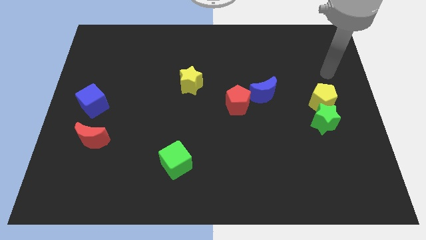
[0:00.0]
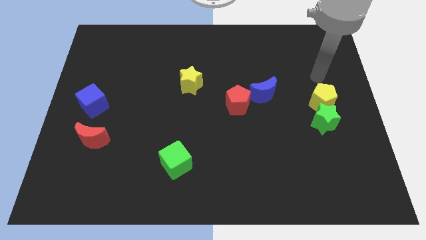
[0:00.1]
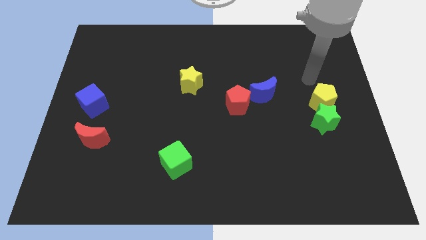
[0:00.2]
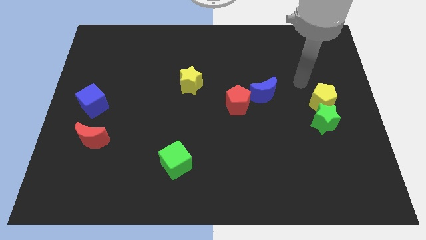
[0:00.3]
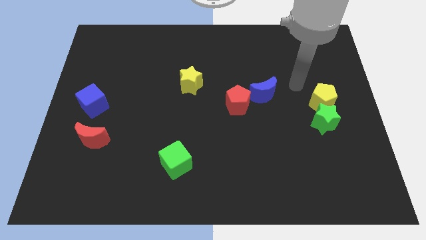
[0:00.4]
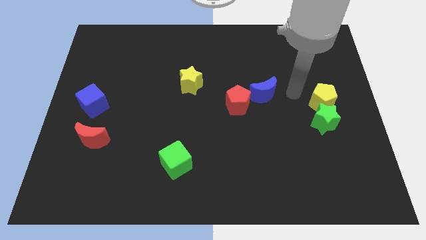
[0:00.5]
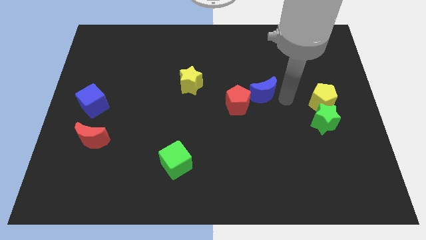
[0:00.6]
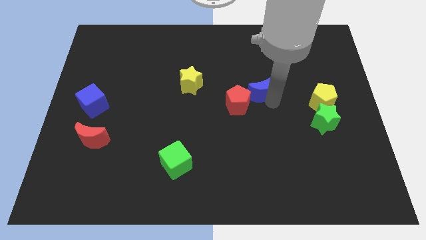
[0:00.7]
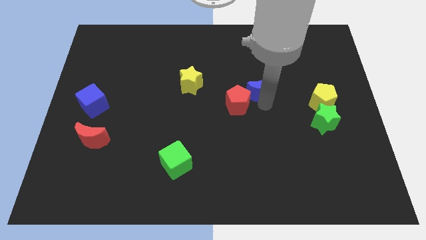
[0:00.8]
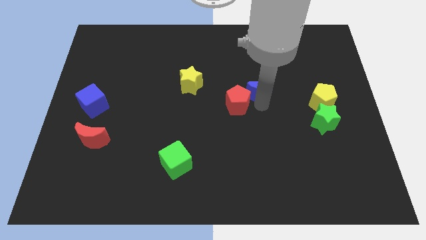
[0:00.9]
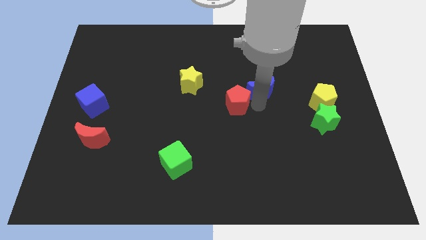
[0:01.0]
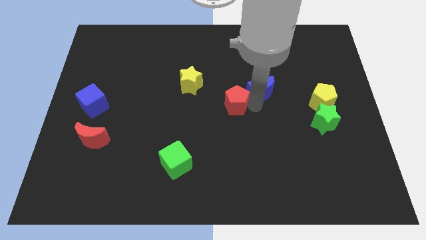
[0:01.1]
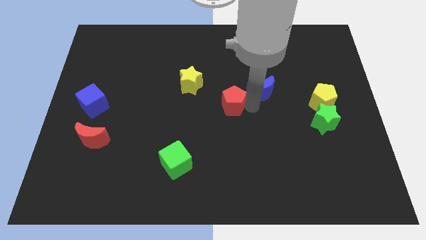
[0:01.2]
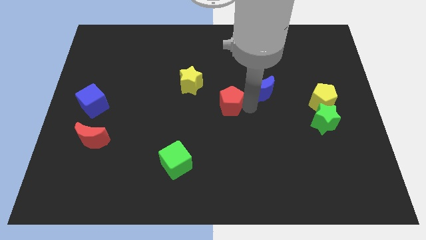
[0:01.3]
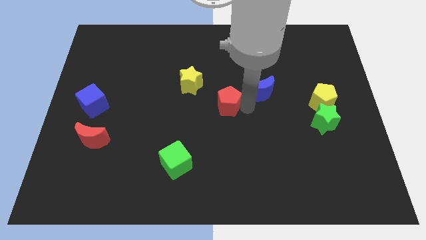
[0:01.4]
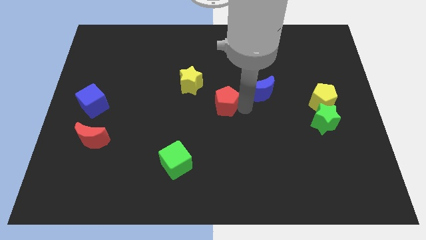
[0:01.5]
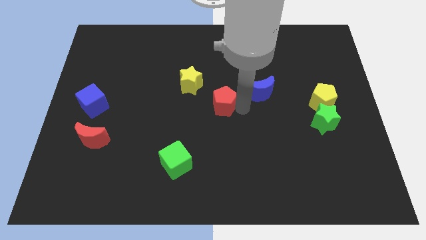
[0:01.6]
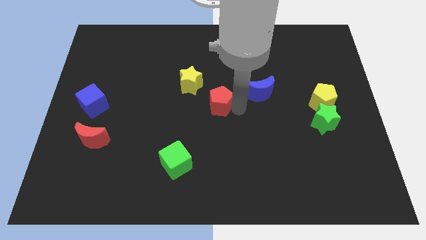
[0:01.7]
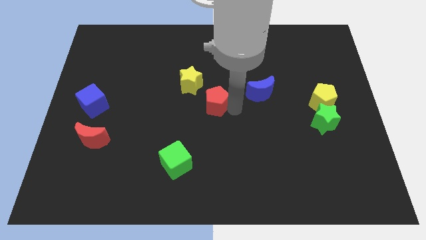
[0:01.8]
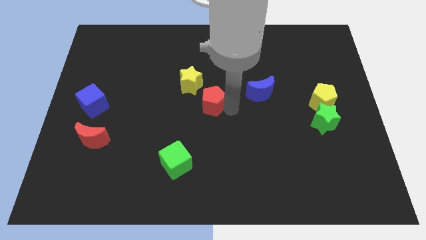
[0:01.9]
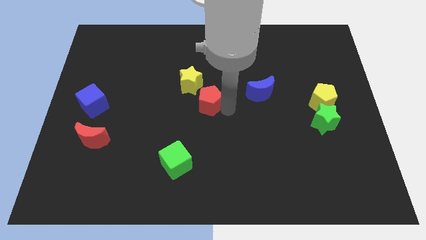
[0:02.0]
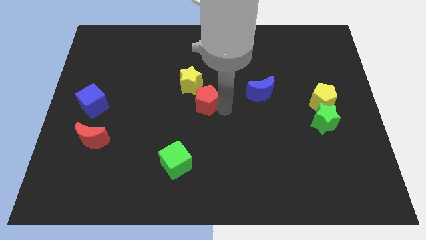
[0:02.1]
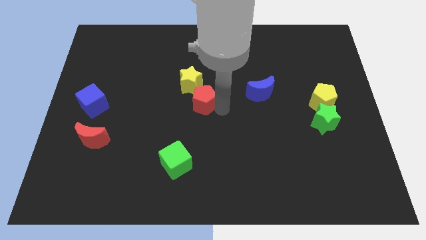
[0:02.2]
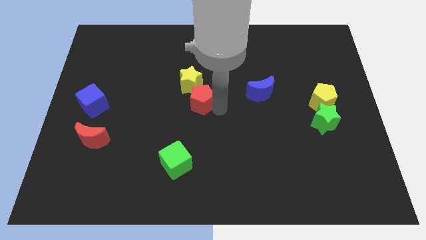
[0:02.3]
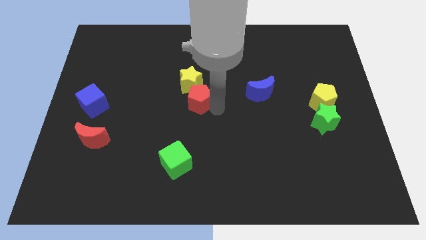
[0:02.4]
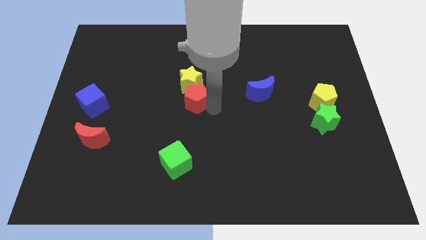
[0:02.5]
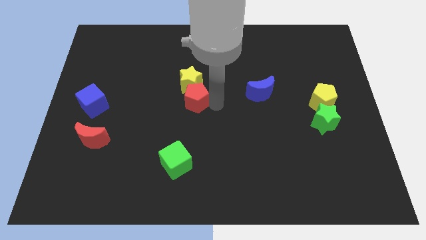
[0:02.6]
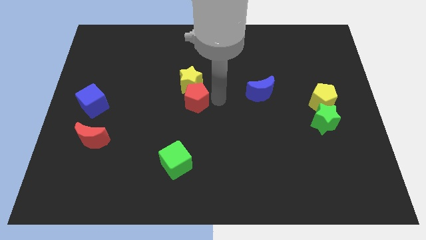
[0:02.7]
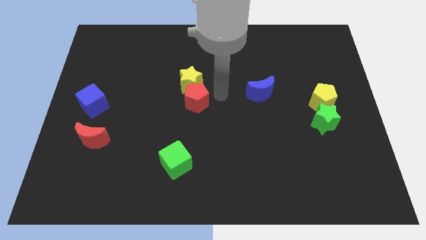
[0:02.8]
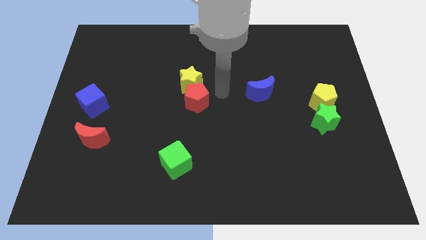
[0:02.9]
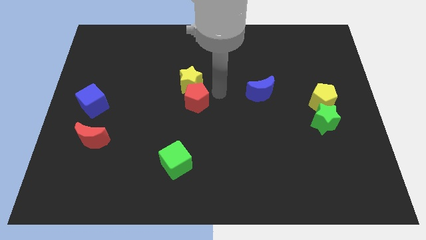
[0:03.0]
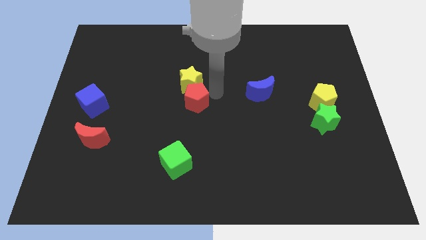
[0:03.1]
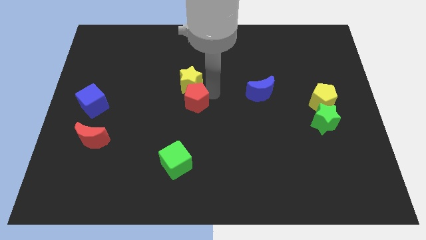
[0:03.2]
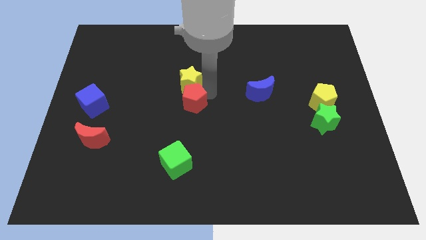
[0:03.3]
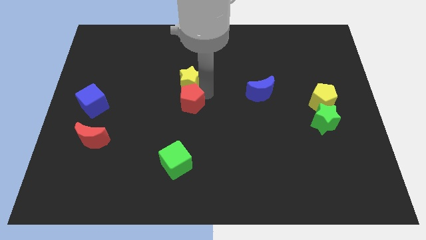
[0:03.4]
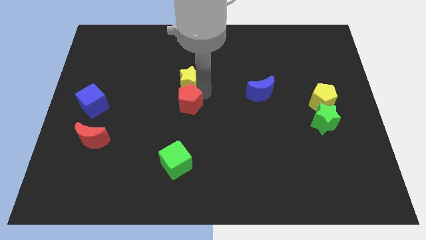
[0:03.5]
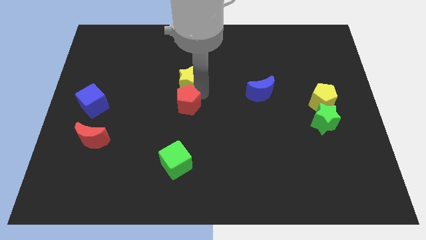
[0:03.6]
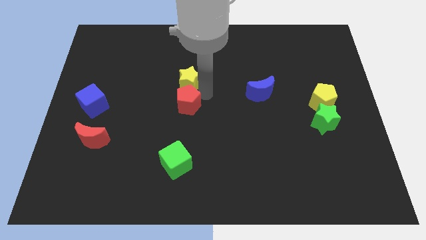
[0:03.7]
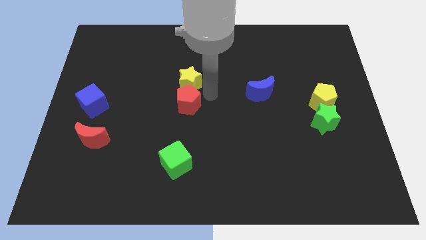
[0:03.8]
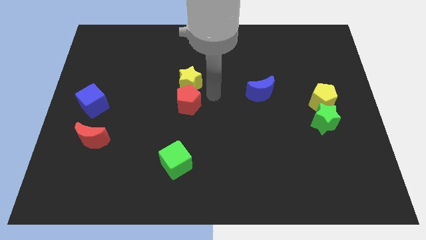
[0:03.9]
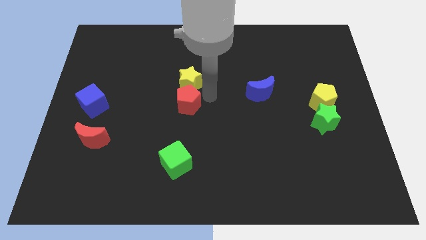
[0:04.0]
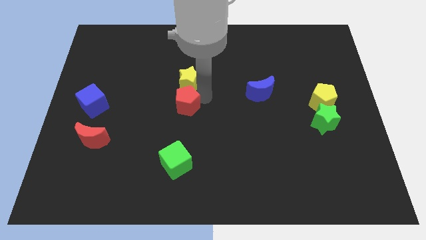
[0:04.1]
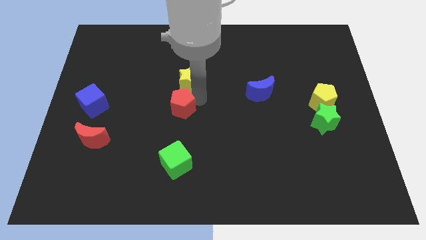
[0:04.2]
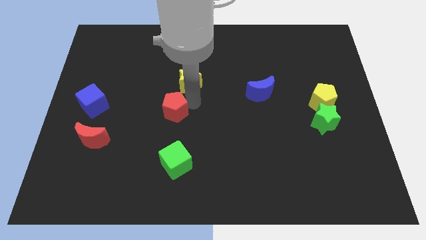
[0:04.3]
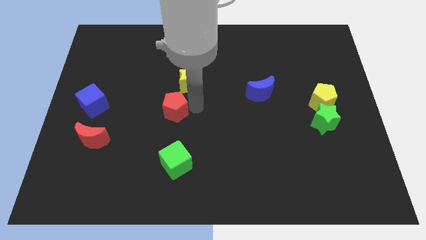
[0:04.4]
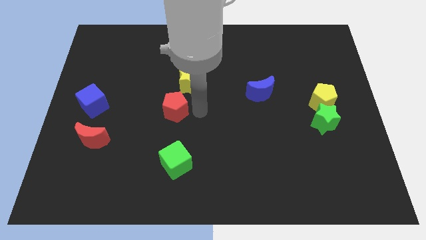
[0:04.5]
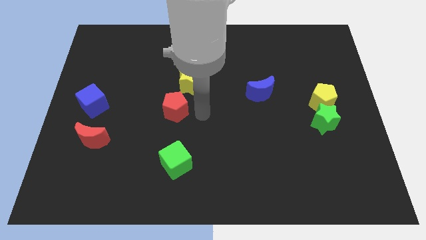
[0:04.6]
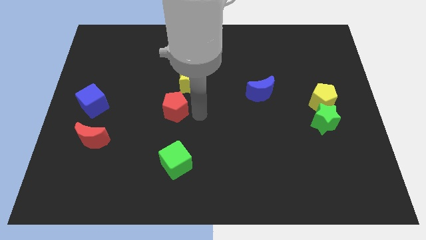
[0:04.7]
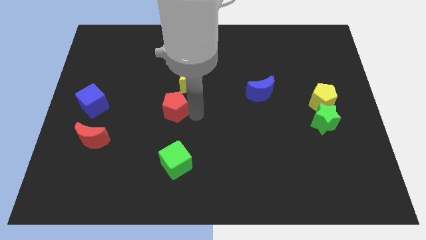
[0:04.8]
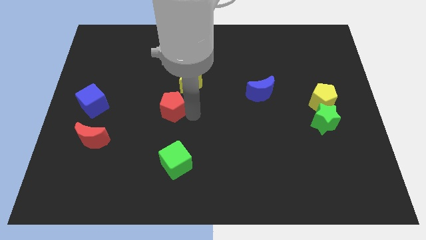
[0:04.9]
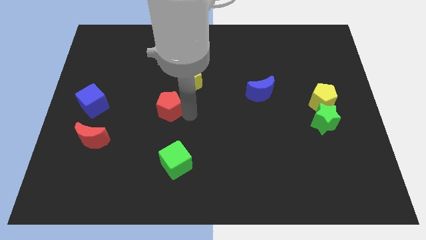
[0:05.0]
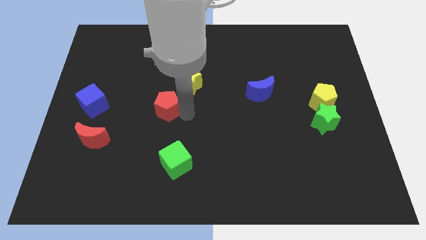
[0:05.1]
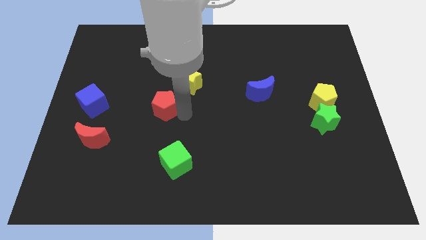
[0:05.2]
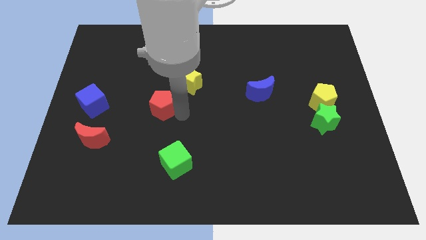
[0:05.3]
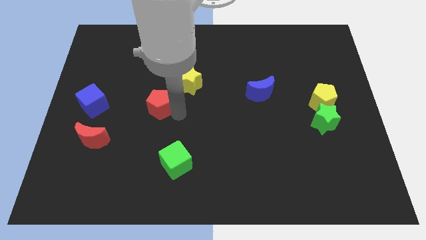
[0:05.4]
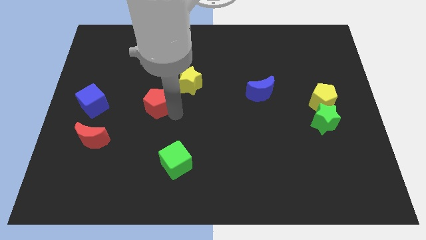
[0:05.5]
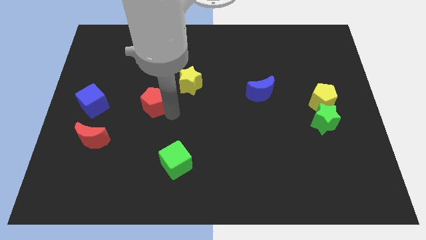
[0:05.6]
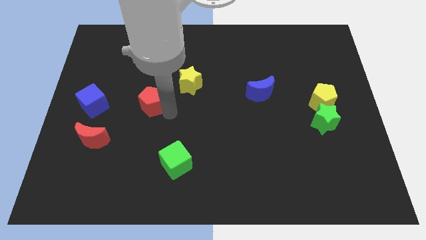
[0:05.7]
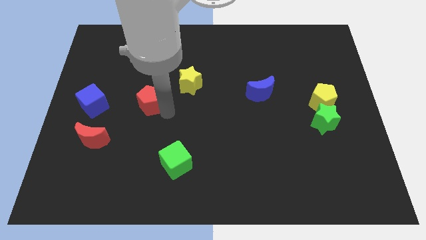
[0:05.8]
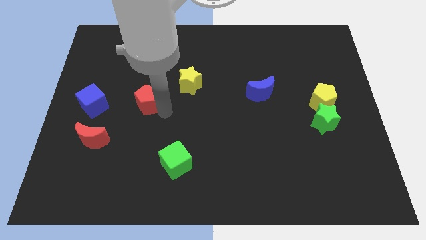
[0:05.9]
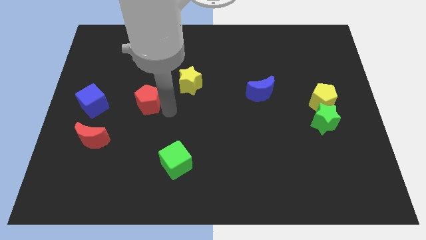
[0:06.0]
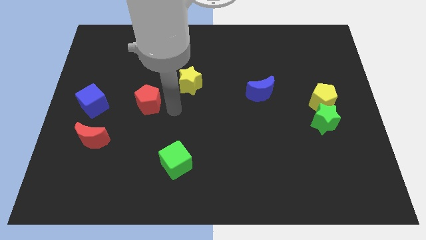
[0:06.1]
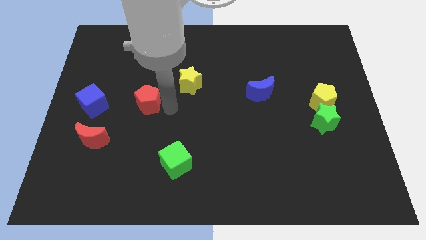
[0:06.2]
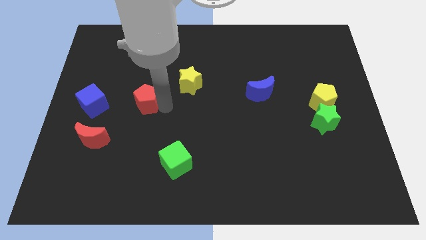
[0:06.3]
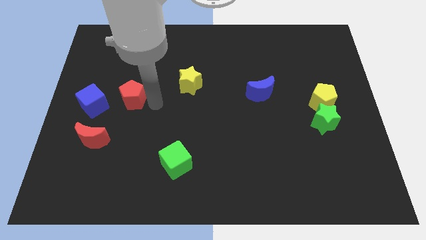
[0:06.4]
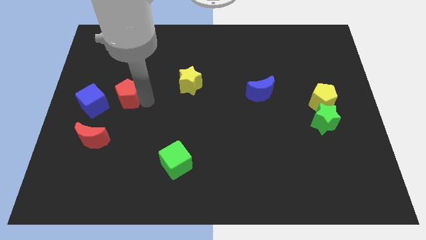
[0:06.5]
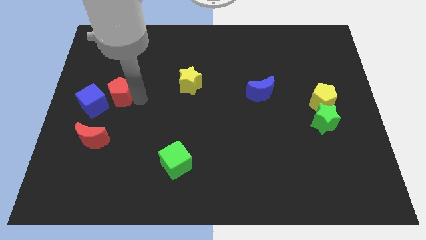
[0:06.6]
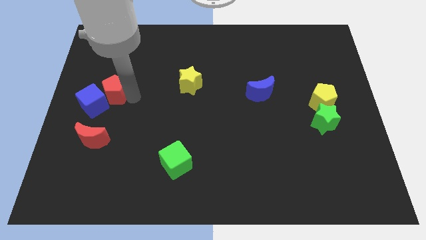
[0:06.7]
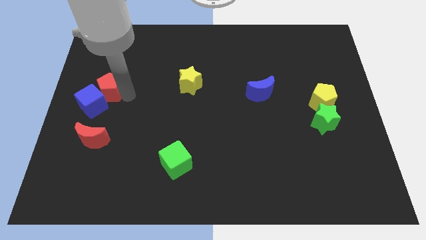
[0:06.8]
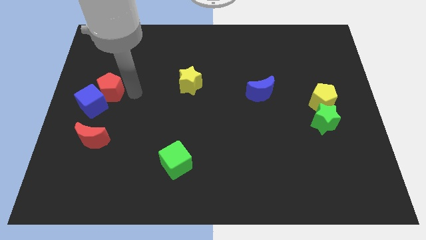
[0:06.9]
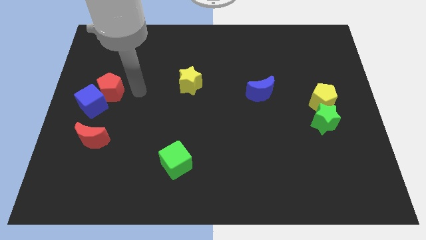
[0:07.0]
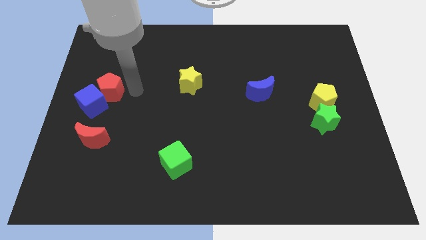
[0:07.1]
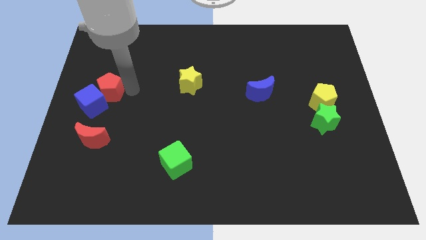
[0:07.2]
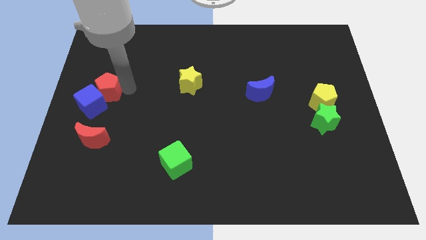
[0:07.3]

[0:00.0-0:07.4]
move the red pentagon to the center left
